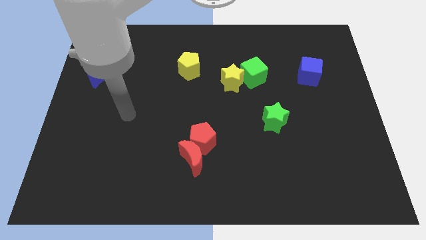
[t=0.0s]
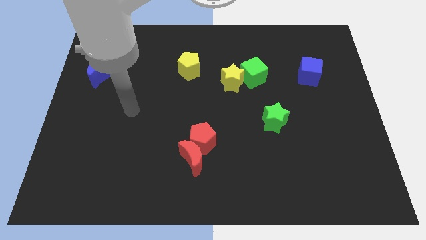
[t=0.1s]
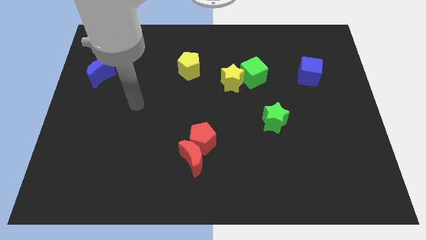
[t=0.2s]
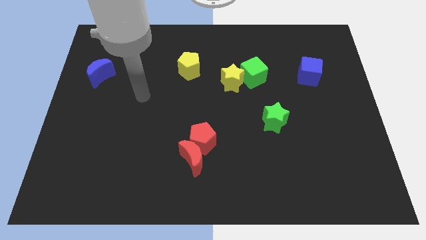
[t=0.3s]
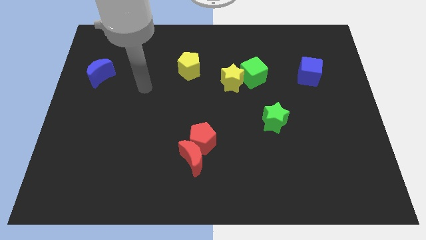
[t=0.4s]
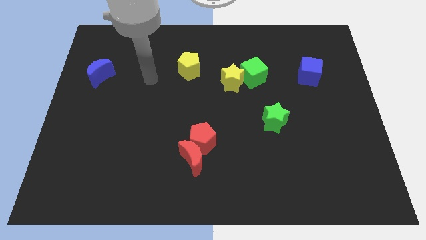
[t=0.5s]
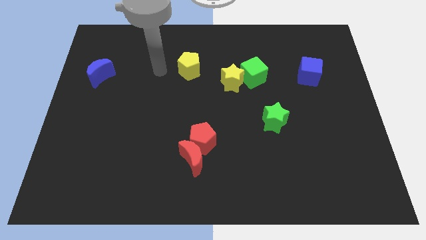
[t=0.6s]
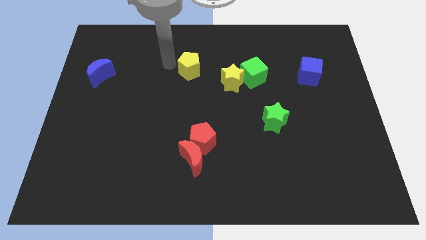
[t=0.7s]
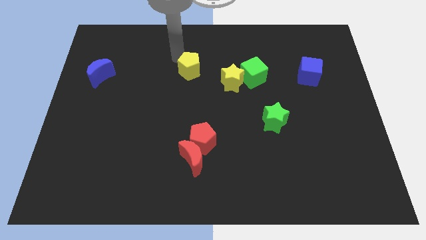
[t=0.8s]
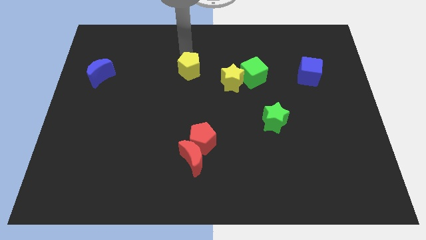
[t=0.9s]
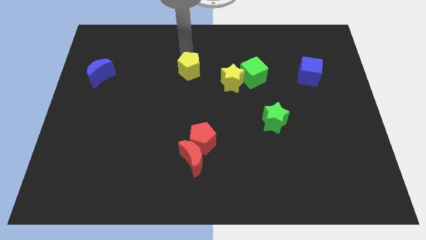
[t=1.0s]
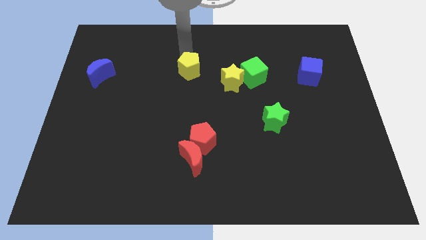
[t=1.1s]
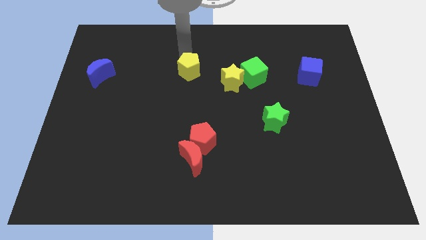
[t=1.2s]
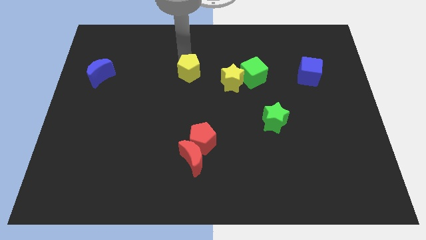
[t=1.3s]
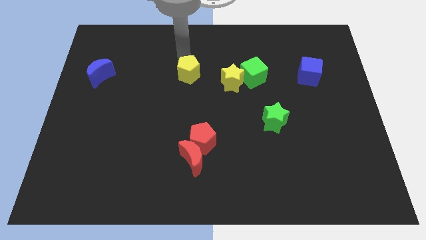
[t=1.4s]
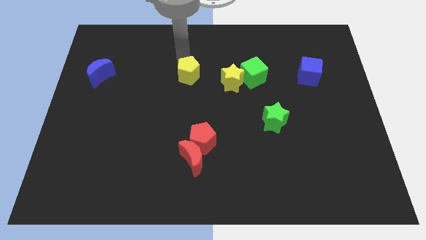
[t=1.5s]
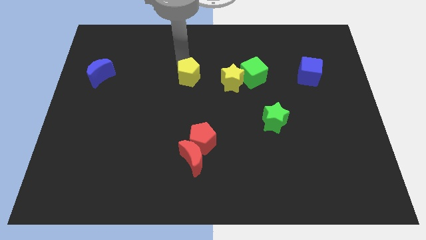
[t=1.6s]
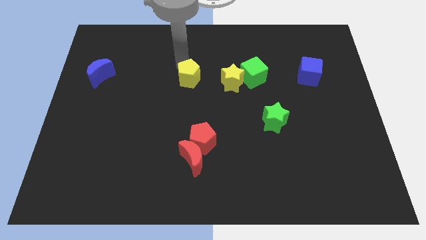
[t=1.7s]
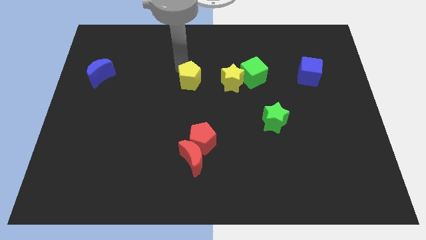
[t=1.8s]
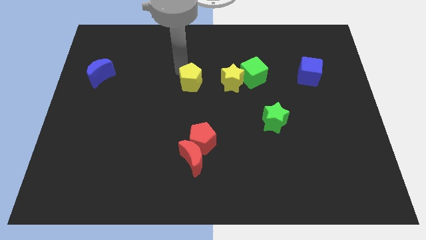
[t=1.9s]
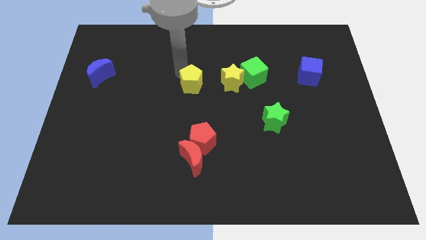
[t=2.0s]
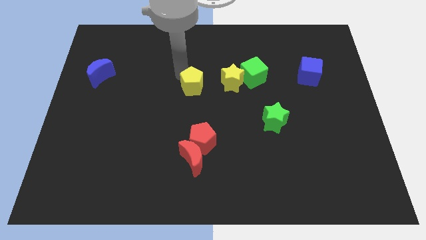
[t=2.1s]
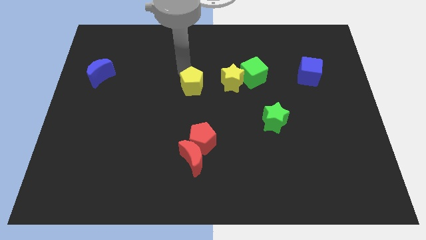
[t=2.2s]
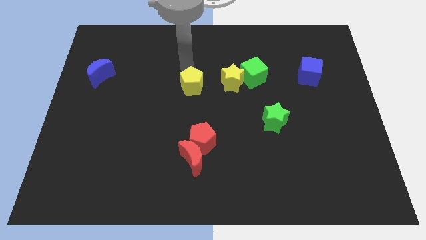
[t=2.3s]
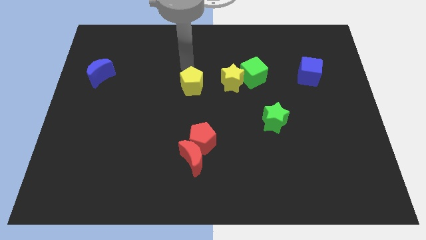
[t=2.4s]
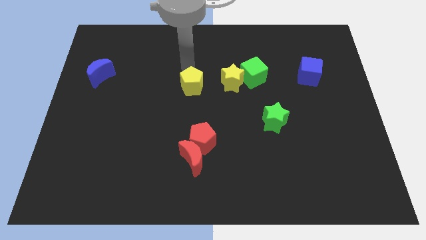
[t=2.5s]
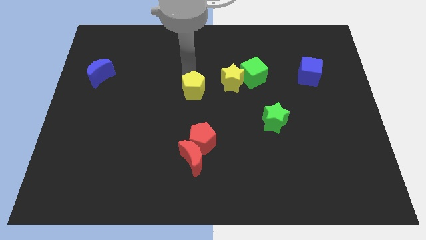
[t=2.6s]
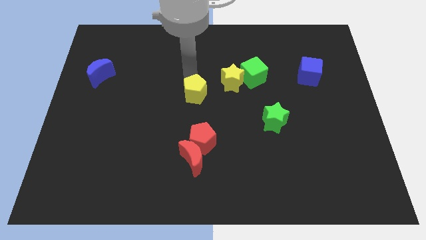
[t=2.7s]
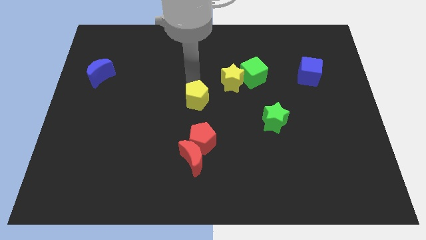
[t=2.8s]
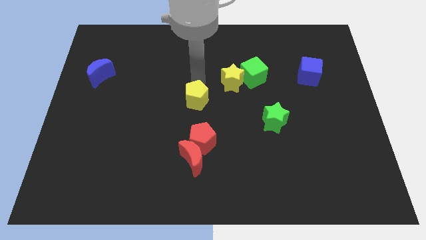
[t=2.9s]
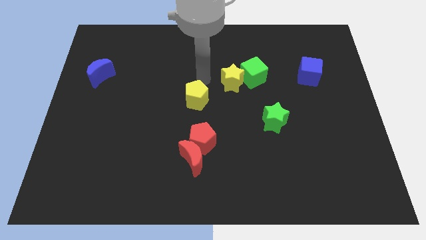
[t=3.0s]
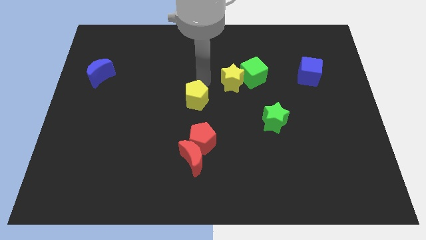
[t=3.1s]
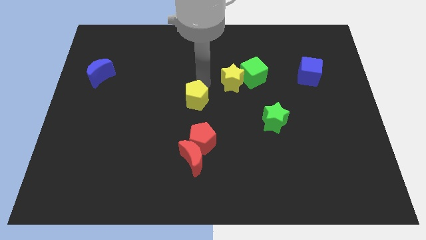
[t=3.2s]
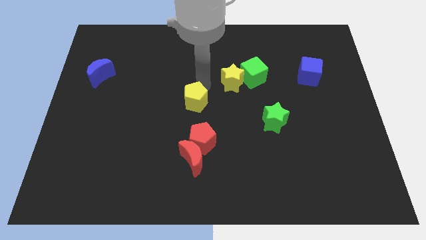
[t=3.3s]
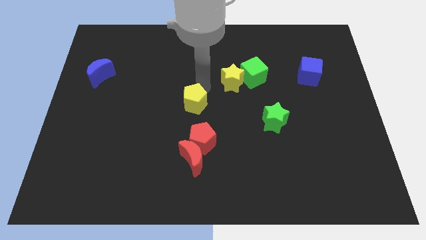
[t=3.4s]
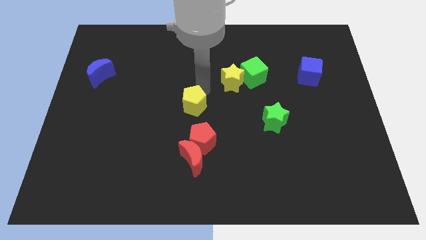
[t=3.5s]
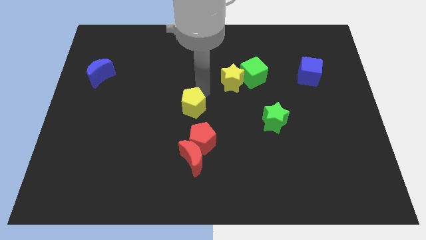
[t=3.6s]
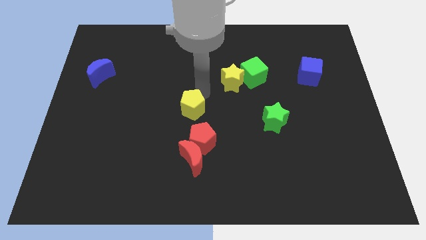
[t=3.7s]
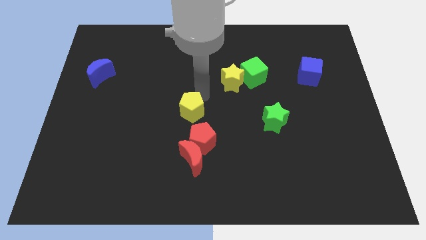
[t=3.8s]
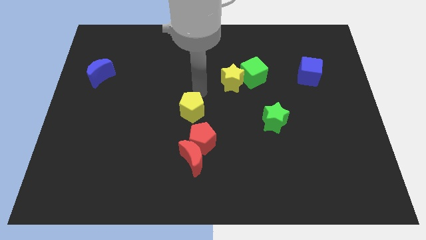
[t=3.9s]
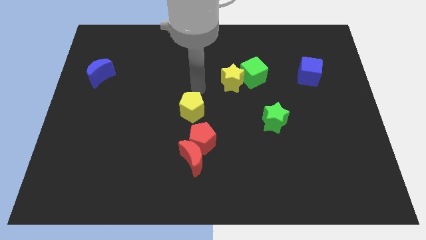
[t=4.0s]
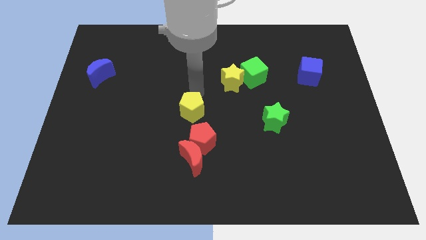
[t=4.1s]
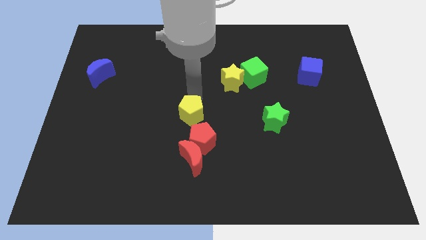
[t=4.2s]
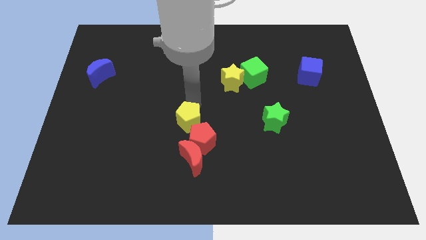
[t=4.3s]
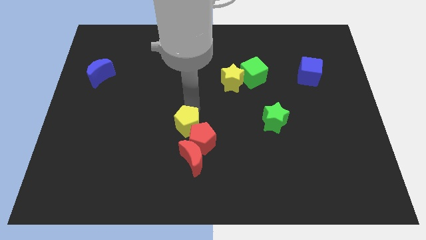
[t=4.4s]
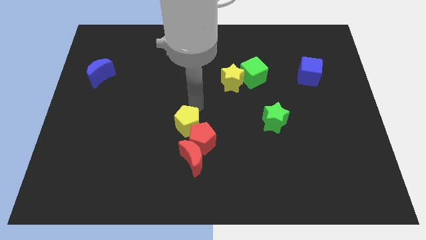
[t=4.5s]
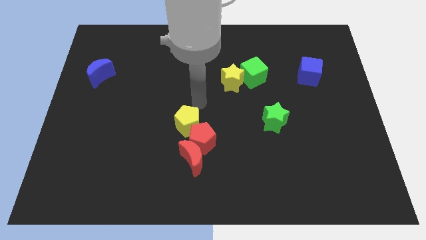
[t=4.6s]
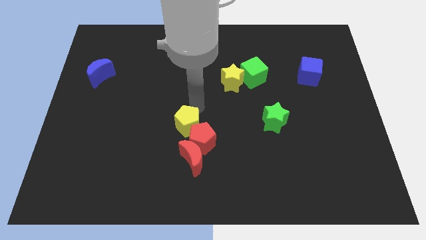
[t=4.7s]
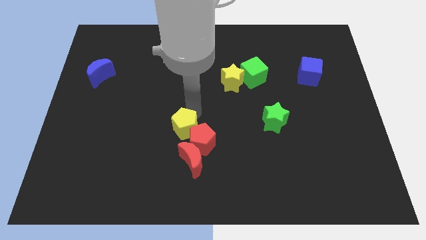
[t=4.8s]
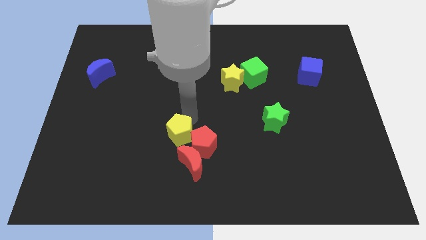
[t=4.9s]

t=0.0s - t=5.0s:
push the yellow pentagon down

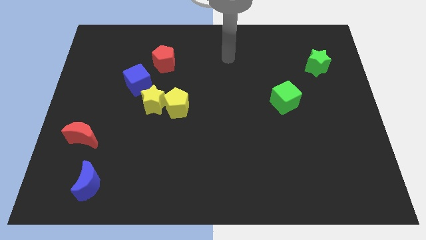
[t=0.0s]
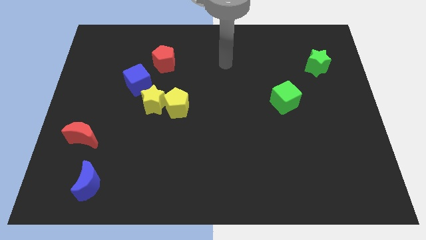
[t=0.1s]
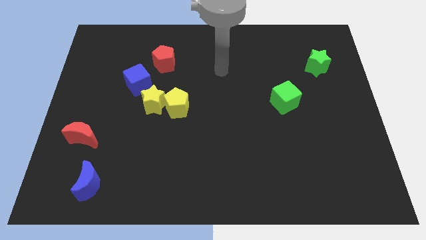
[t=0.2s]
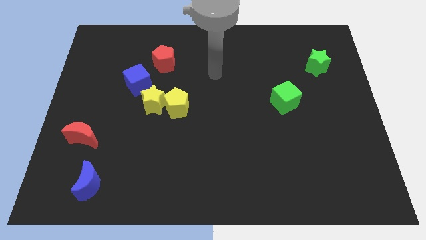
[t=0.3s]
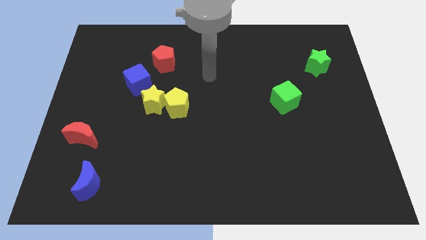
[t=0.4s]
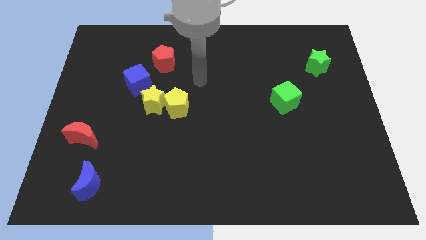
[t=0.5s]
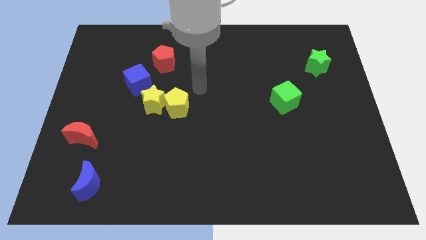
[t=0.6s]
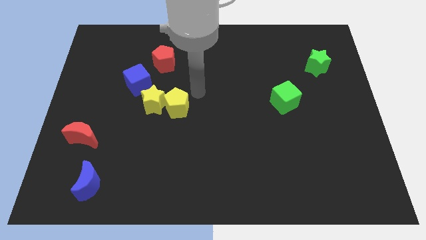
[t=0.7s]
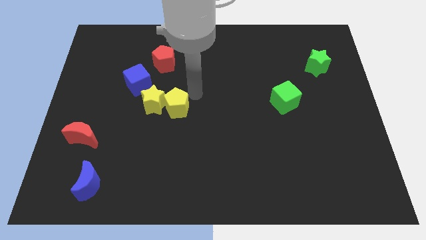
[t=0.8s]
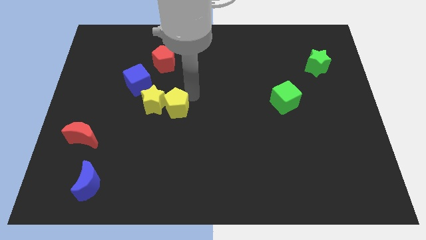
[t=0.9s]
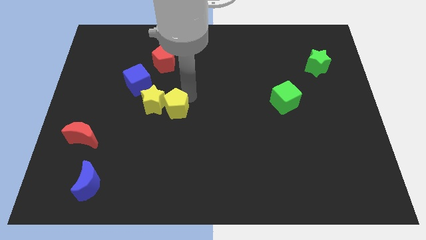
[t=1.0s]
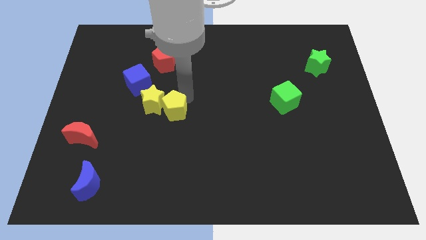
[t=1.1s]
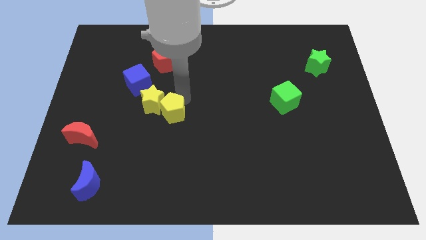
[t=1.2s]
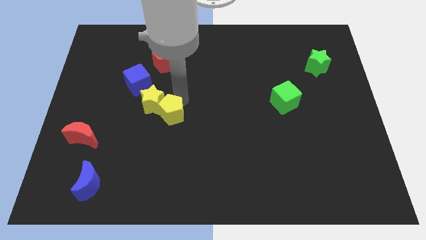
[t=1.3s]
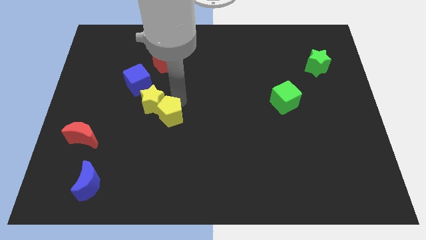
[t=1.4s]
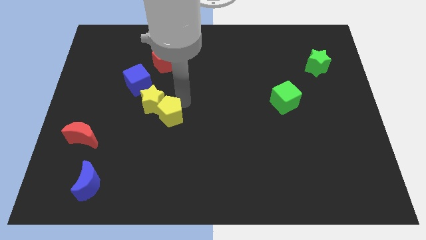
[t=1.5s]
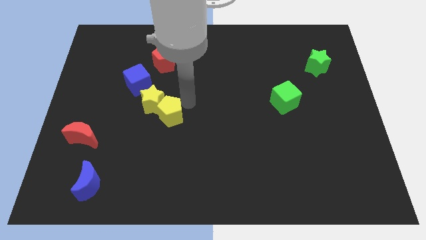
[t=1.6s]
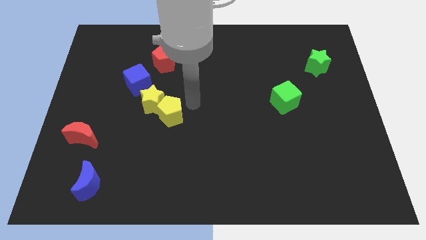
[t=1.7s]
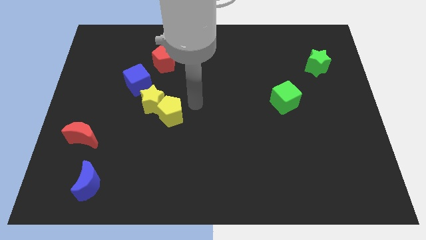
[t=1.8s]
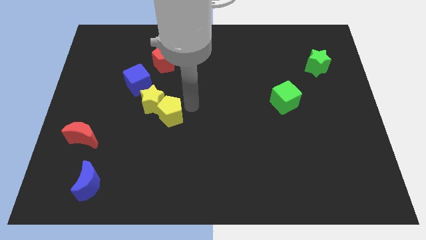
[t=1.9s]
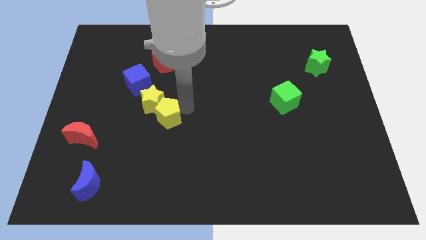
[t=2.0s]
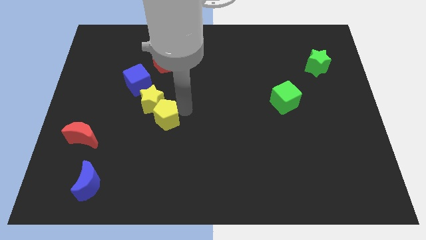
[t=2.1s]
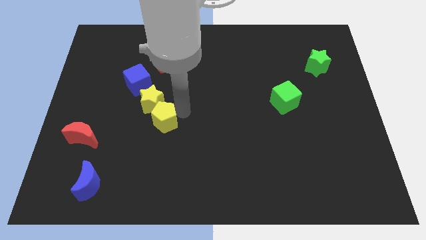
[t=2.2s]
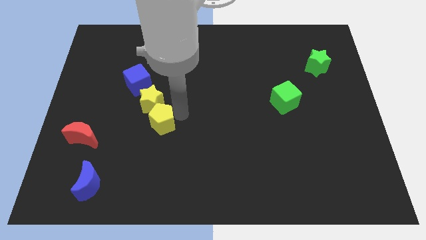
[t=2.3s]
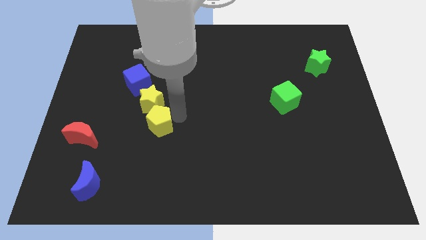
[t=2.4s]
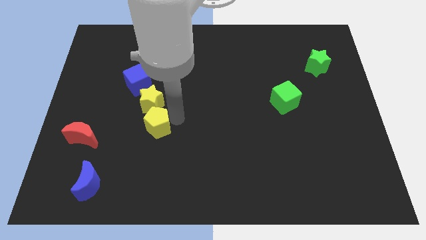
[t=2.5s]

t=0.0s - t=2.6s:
push the yellow pentagon downwards and left a little bit

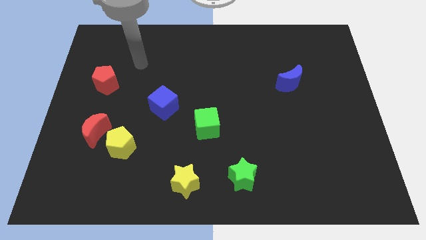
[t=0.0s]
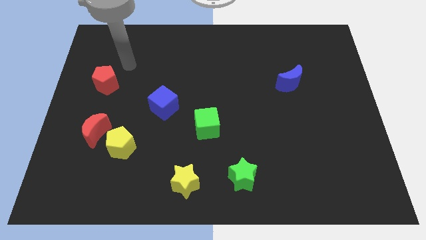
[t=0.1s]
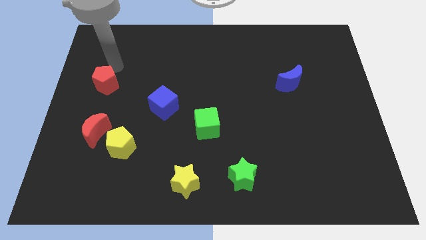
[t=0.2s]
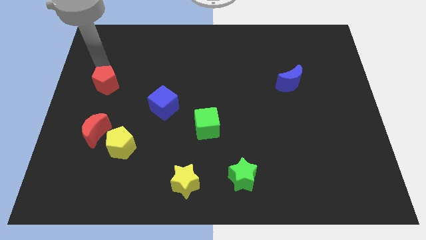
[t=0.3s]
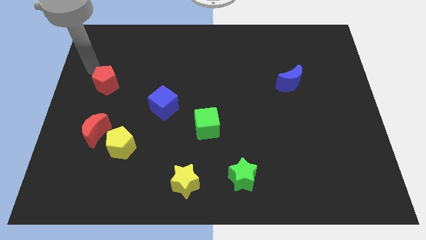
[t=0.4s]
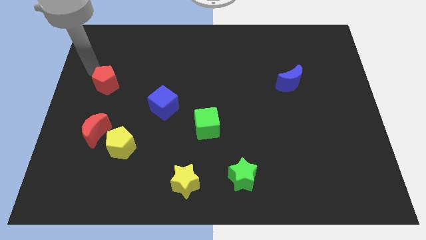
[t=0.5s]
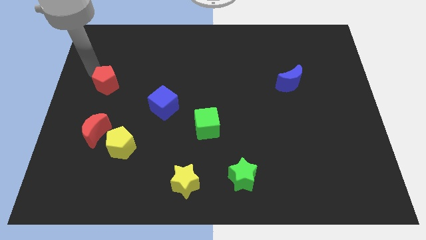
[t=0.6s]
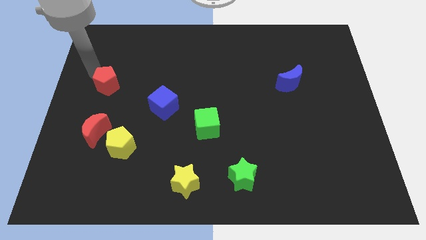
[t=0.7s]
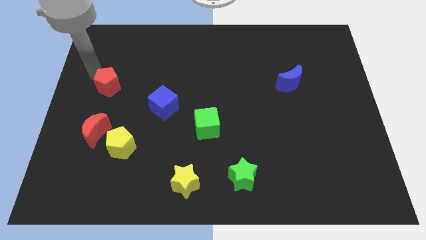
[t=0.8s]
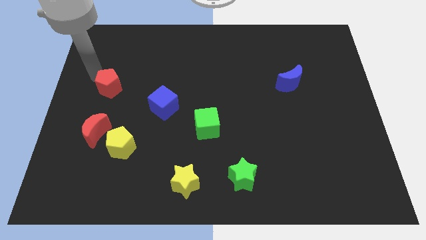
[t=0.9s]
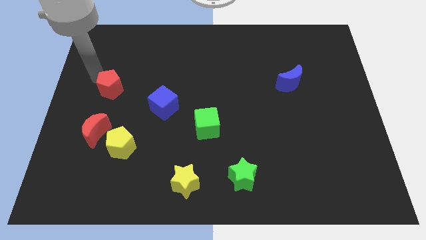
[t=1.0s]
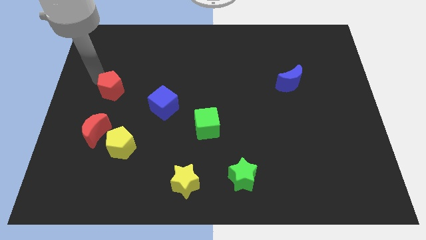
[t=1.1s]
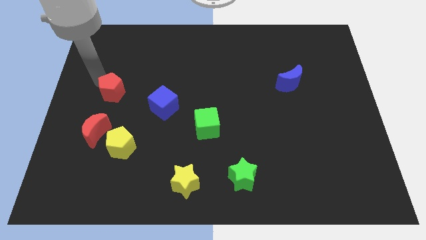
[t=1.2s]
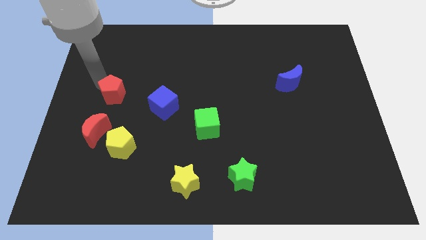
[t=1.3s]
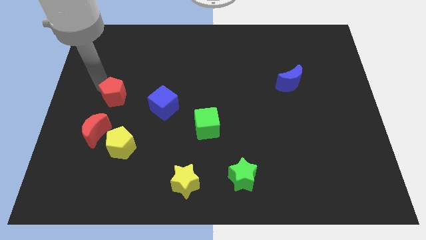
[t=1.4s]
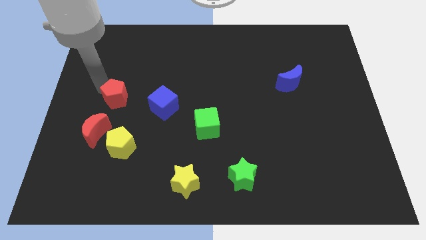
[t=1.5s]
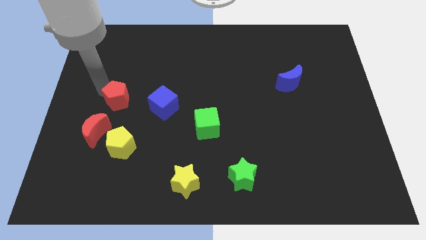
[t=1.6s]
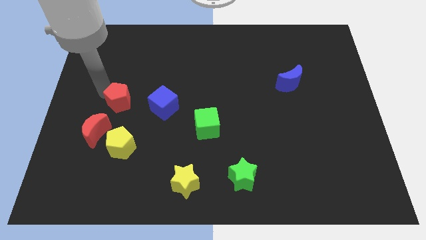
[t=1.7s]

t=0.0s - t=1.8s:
move the red pentagon a bit downwards and to the right diagonally
